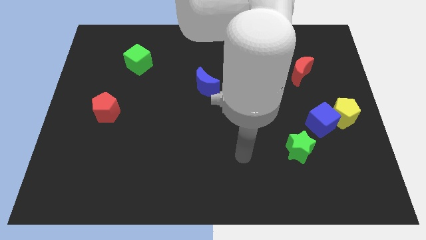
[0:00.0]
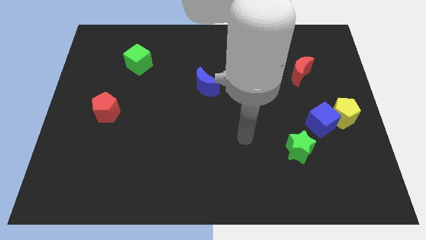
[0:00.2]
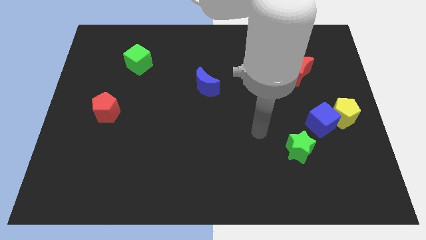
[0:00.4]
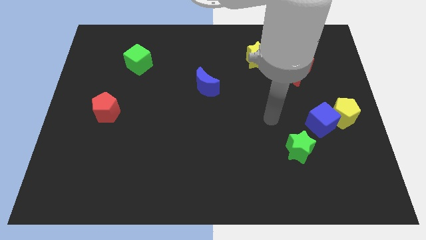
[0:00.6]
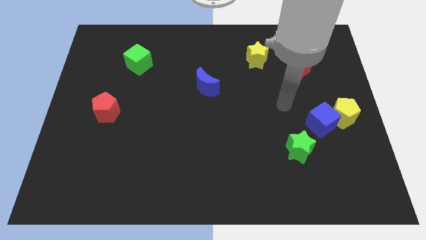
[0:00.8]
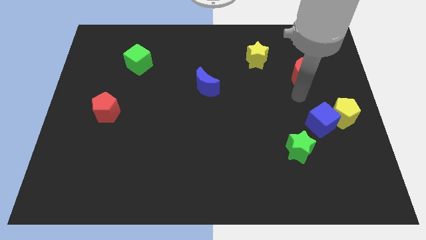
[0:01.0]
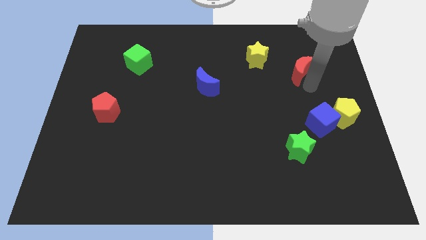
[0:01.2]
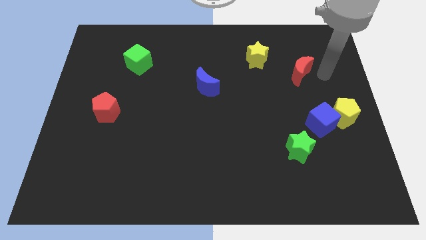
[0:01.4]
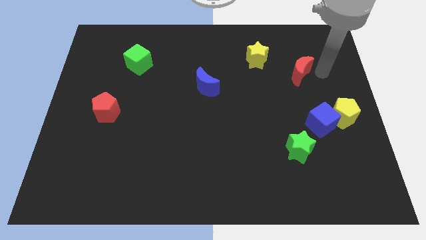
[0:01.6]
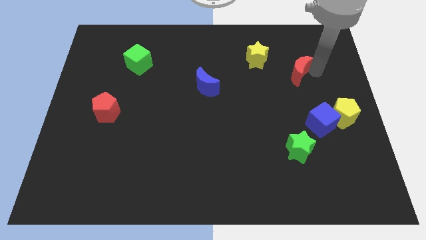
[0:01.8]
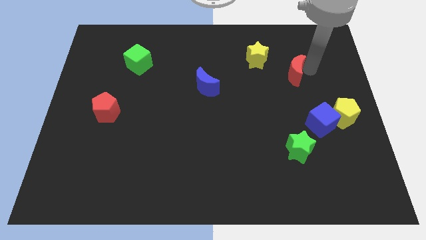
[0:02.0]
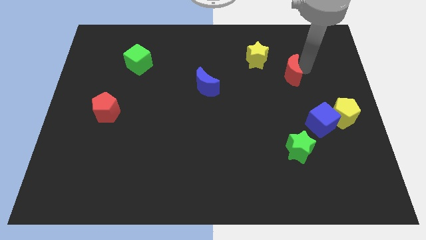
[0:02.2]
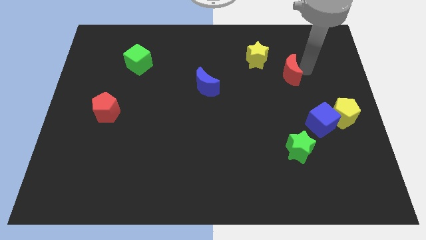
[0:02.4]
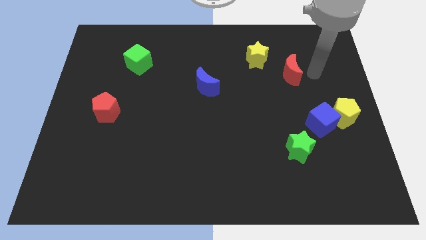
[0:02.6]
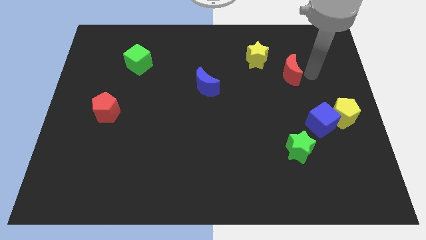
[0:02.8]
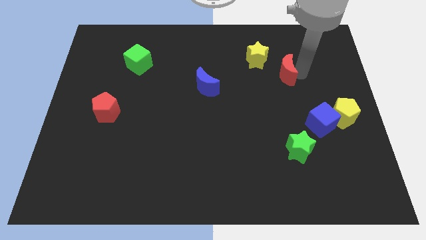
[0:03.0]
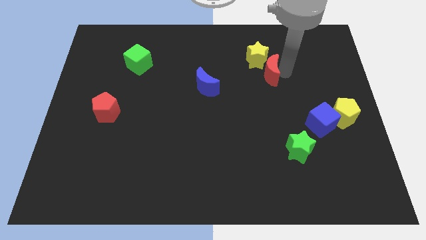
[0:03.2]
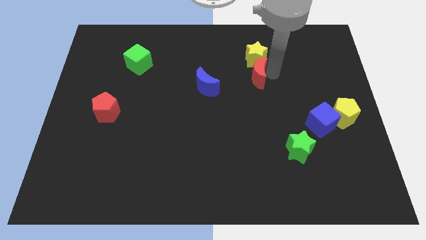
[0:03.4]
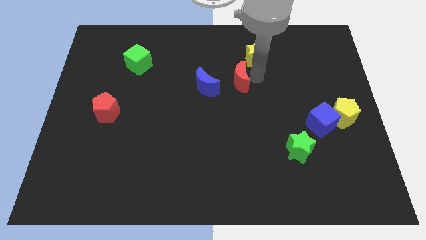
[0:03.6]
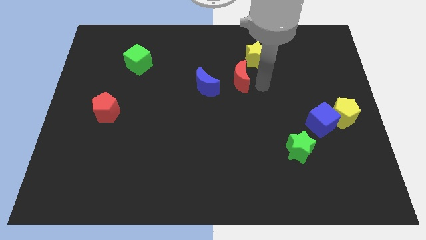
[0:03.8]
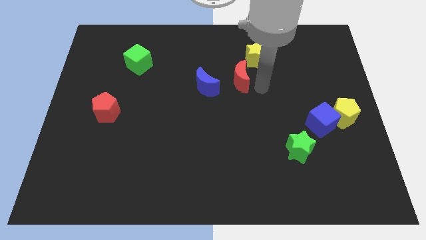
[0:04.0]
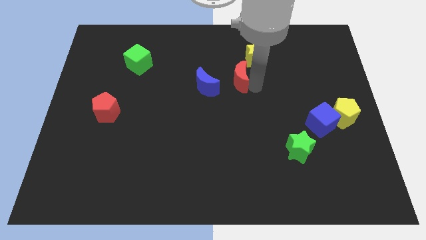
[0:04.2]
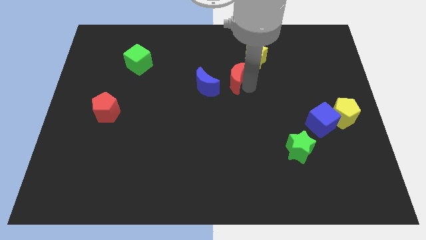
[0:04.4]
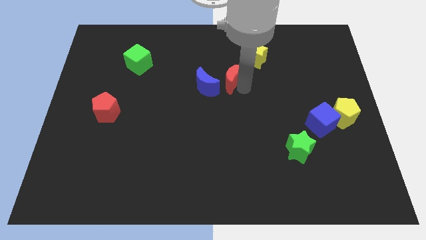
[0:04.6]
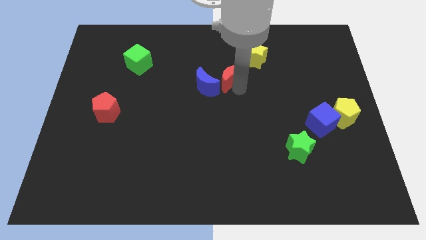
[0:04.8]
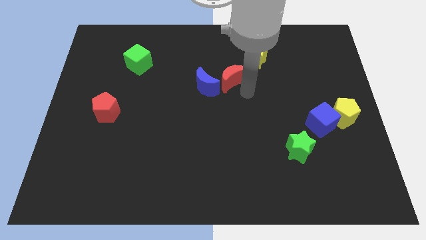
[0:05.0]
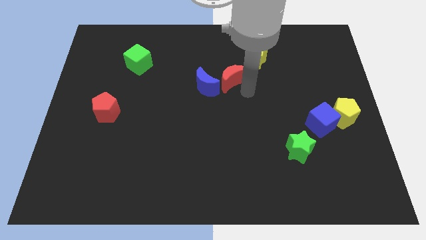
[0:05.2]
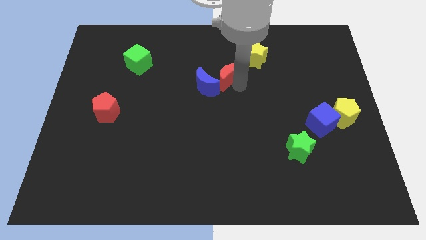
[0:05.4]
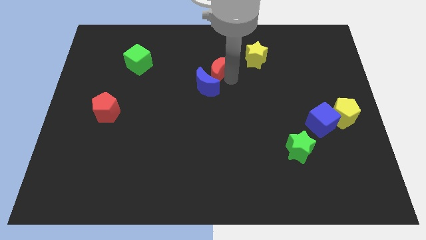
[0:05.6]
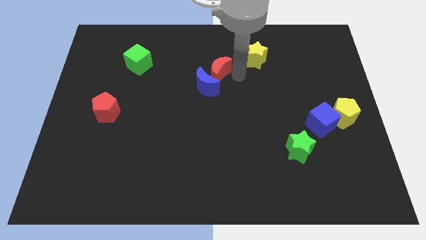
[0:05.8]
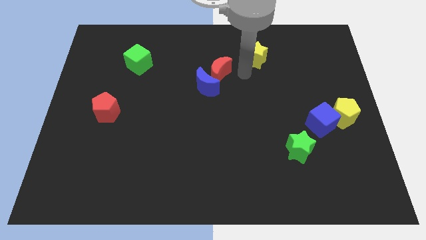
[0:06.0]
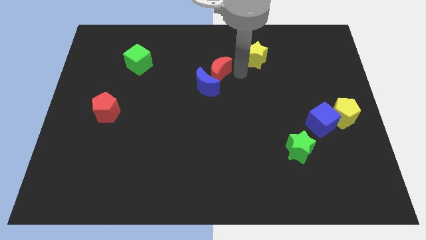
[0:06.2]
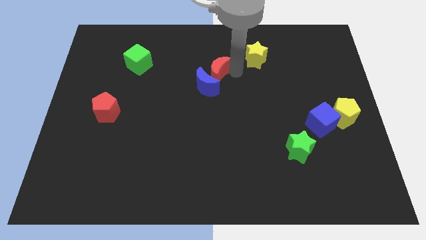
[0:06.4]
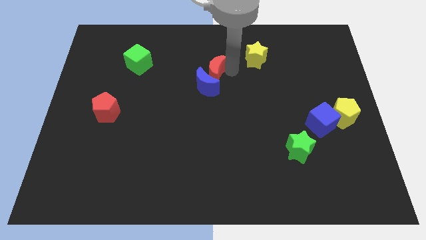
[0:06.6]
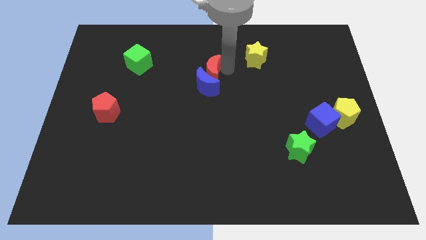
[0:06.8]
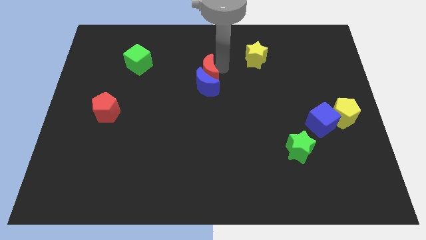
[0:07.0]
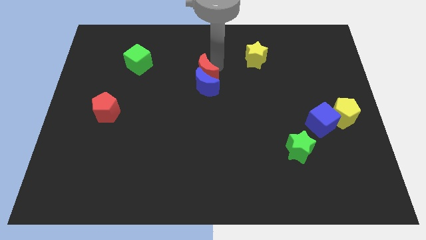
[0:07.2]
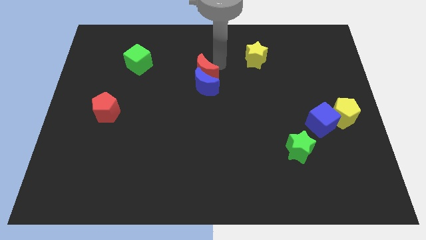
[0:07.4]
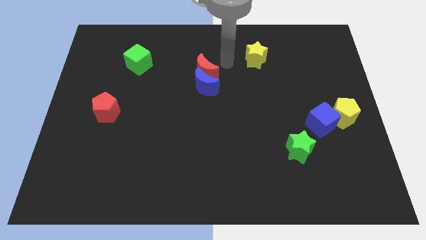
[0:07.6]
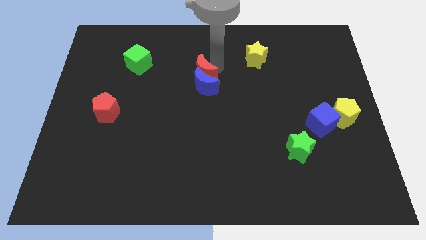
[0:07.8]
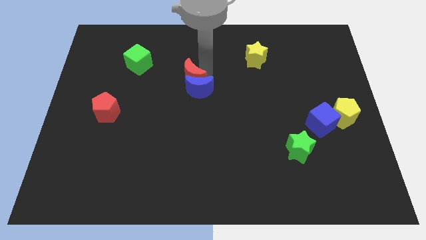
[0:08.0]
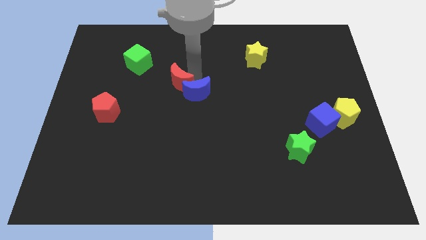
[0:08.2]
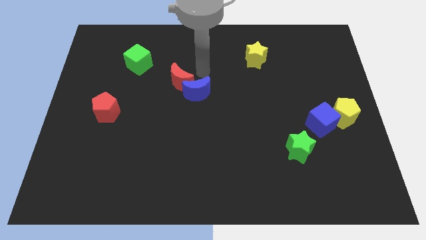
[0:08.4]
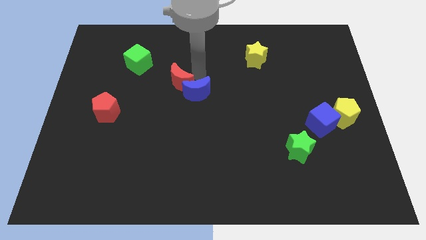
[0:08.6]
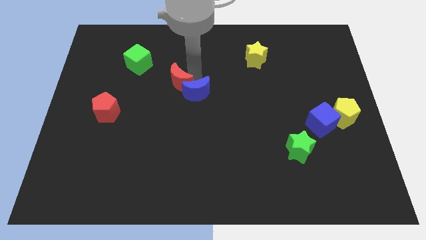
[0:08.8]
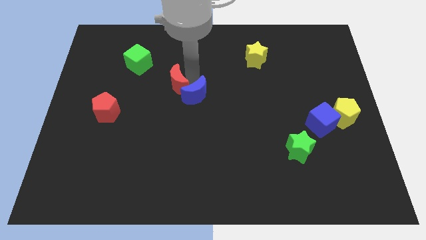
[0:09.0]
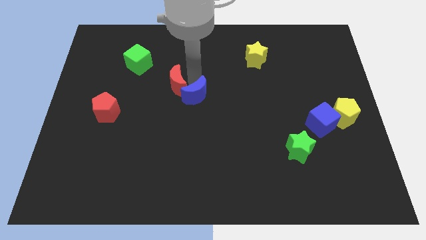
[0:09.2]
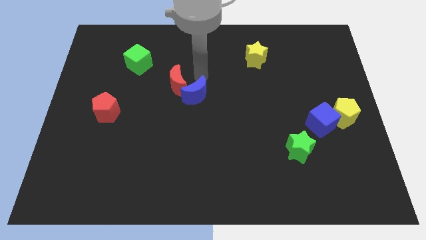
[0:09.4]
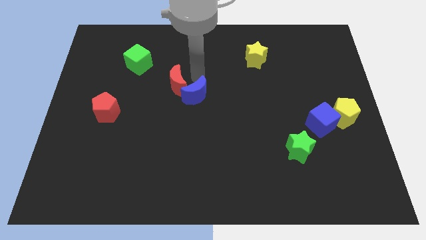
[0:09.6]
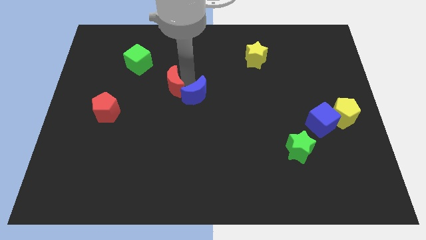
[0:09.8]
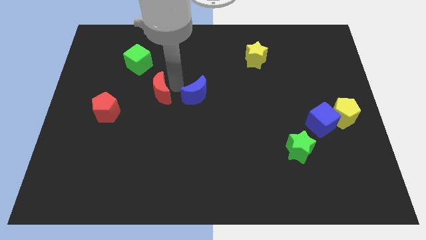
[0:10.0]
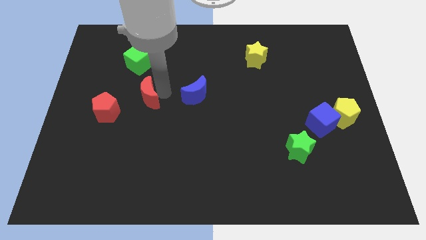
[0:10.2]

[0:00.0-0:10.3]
put the red moon to the bottom side of the green cube

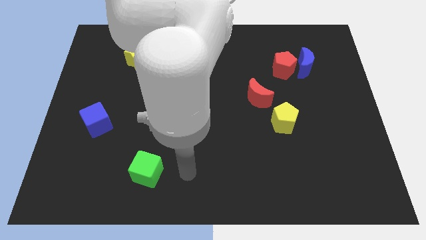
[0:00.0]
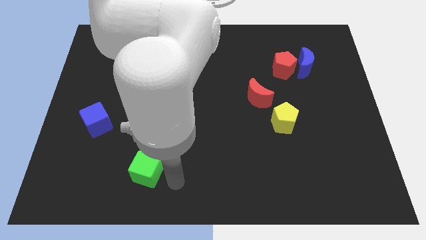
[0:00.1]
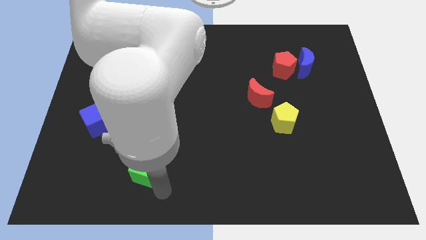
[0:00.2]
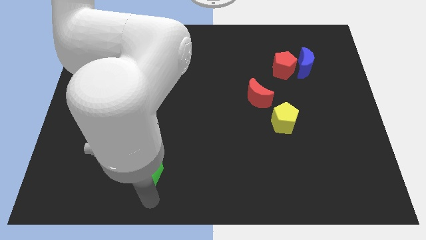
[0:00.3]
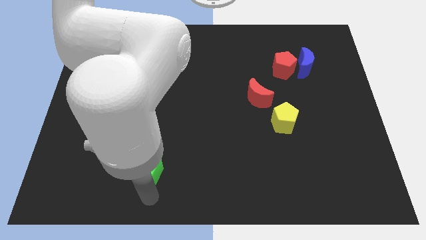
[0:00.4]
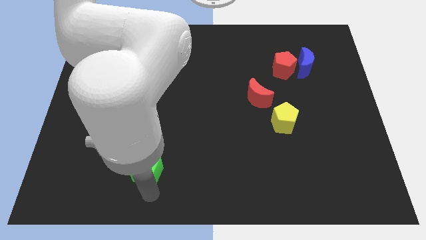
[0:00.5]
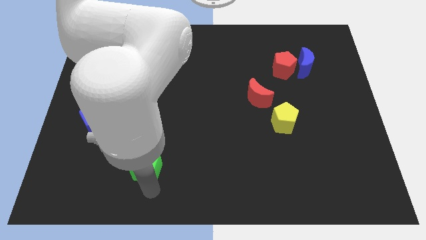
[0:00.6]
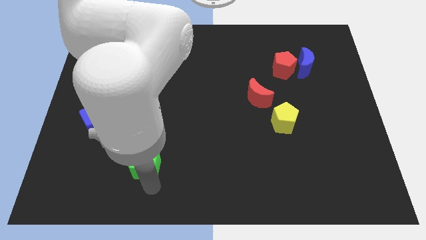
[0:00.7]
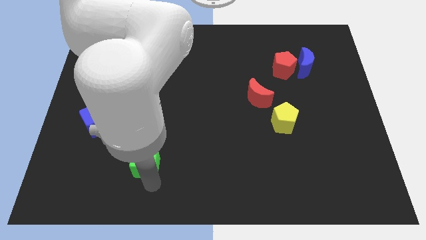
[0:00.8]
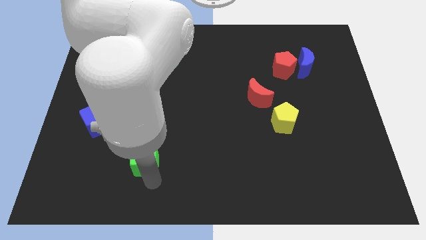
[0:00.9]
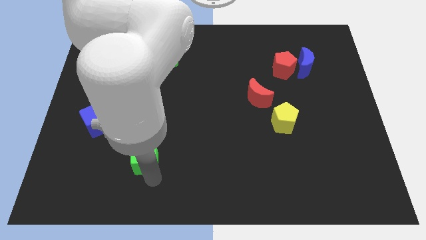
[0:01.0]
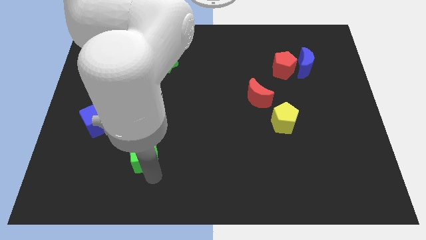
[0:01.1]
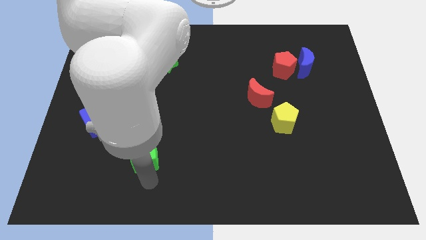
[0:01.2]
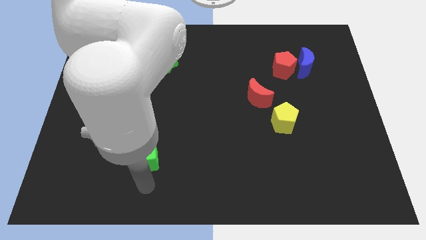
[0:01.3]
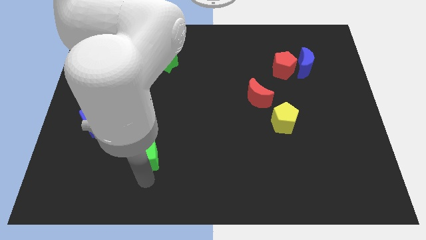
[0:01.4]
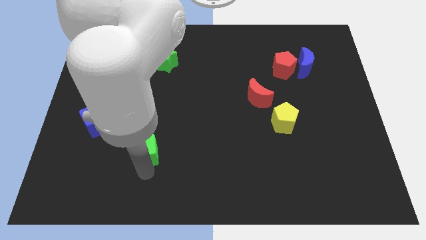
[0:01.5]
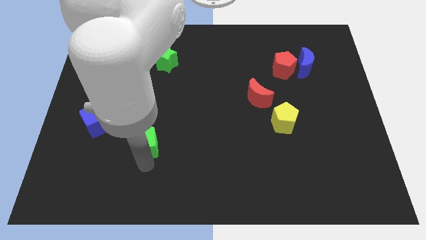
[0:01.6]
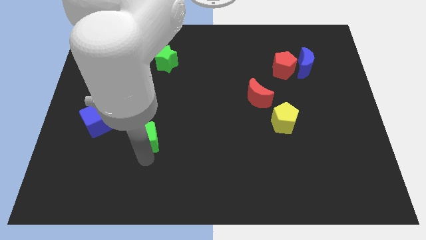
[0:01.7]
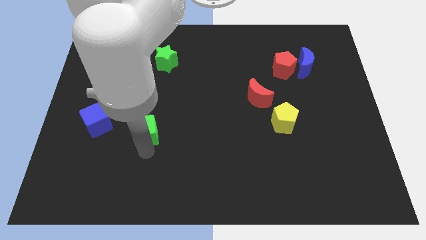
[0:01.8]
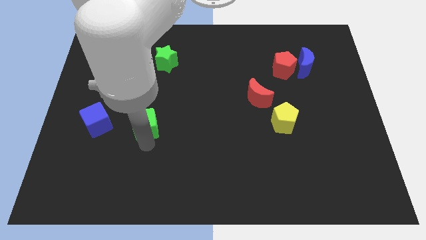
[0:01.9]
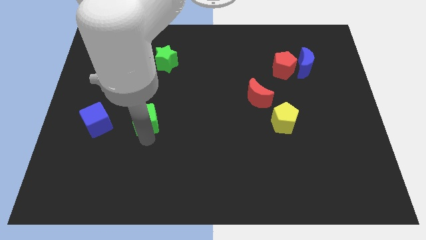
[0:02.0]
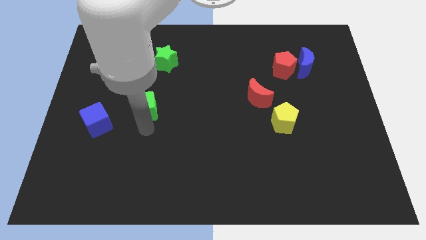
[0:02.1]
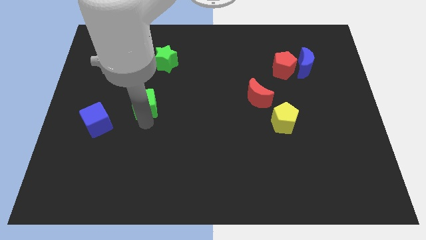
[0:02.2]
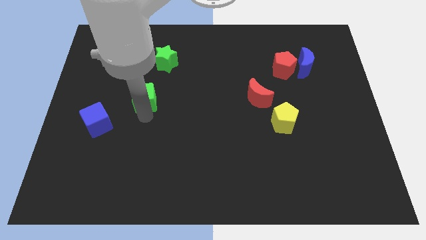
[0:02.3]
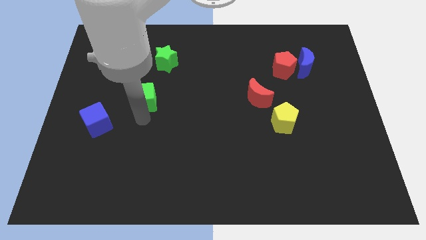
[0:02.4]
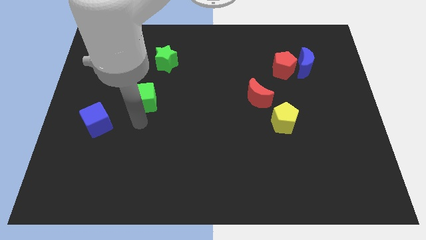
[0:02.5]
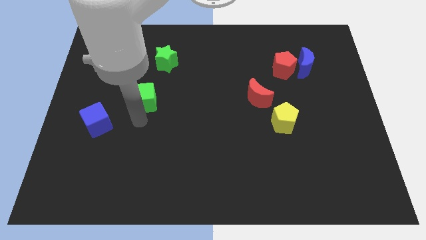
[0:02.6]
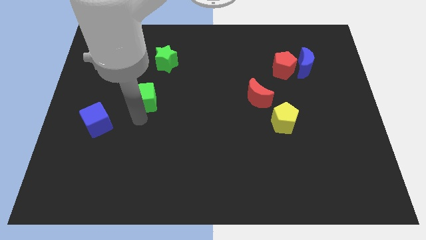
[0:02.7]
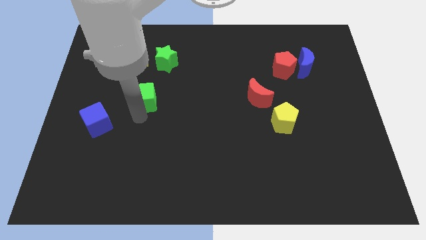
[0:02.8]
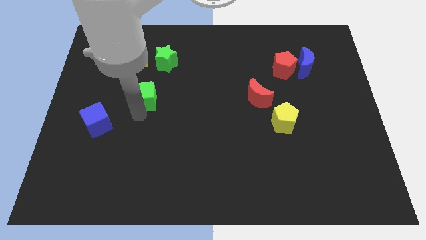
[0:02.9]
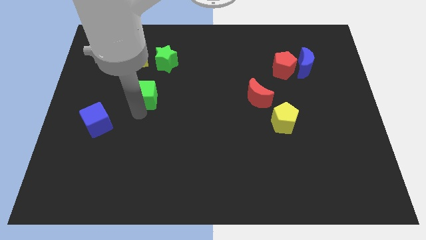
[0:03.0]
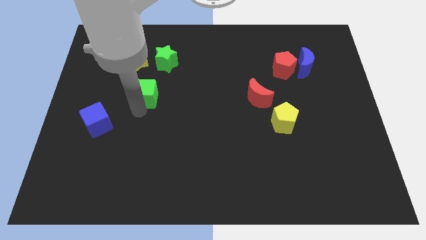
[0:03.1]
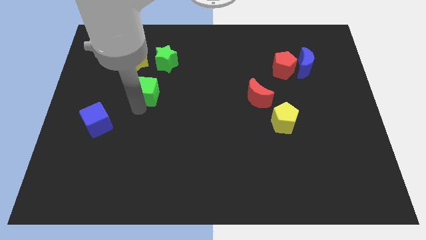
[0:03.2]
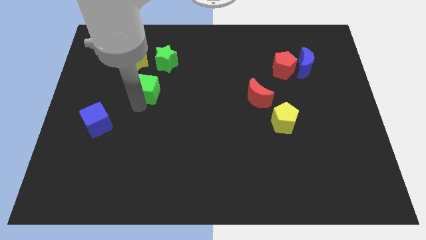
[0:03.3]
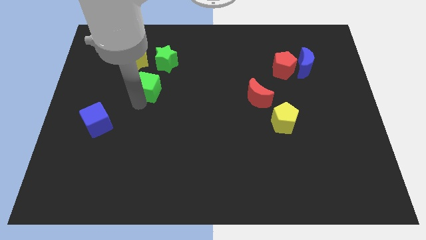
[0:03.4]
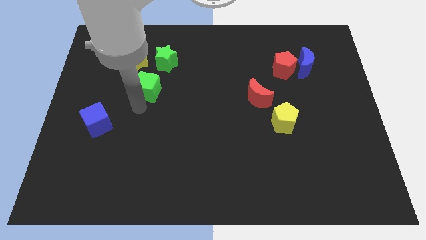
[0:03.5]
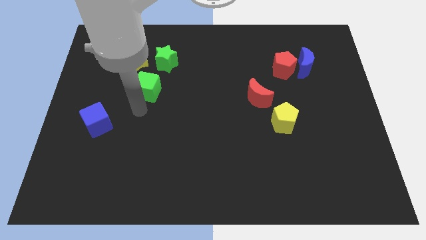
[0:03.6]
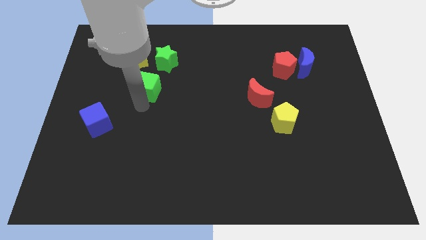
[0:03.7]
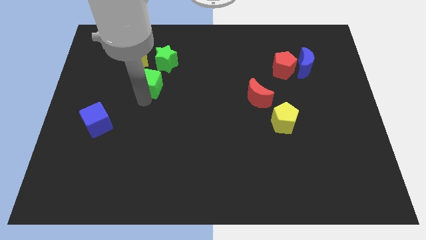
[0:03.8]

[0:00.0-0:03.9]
slide the green cube to the bottom right of the yellow star
